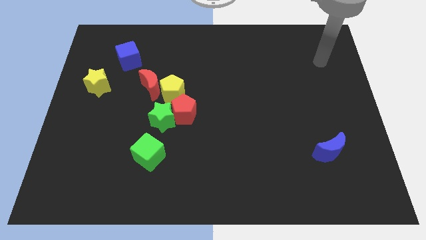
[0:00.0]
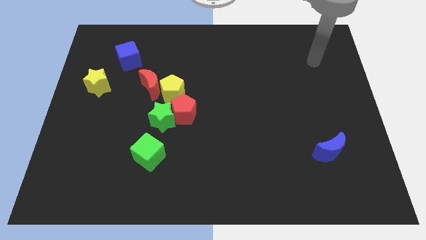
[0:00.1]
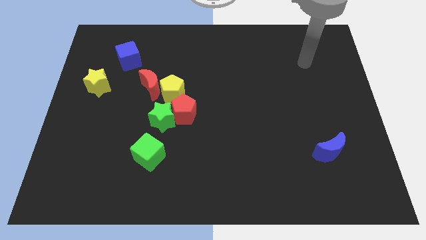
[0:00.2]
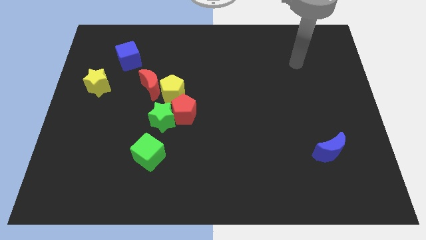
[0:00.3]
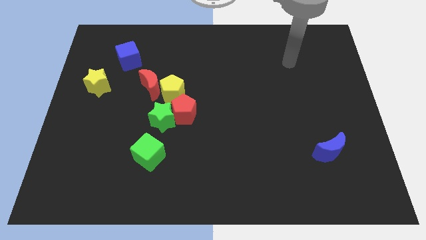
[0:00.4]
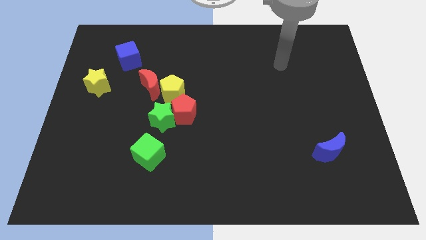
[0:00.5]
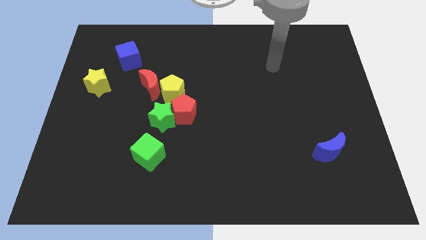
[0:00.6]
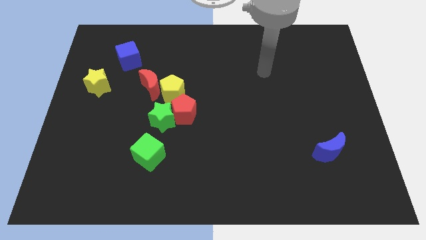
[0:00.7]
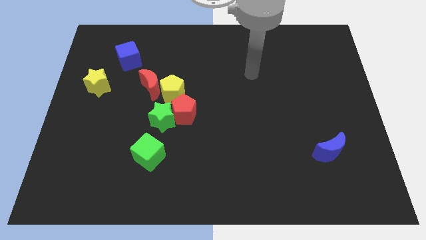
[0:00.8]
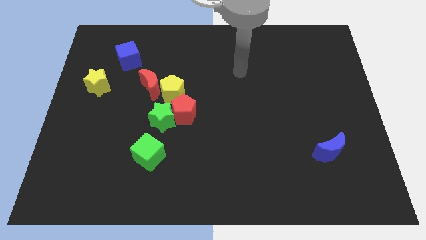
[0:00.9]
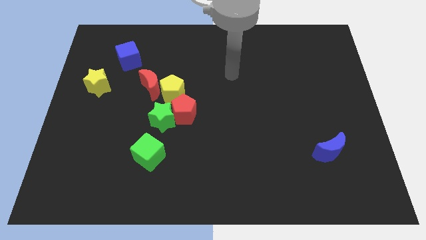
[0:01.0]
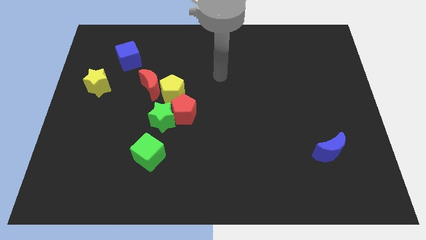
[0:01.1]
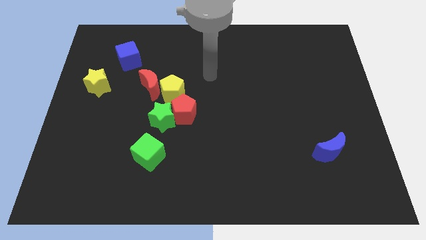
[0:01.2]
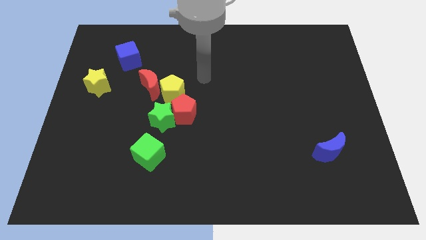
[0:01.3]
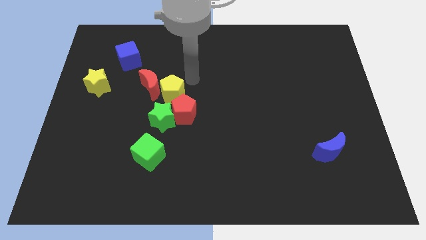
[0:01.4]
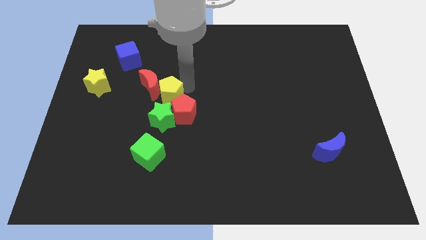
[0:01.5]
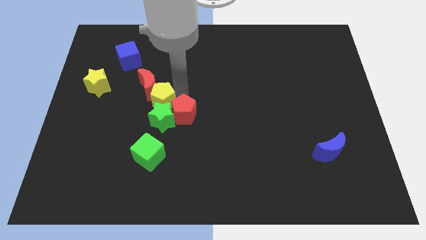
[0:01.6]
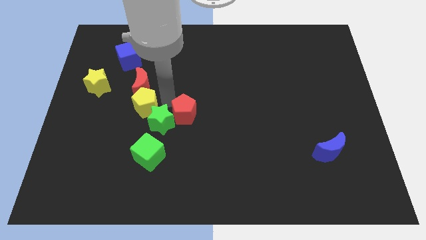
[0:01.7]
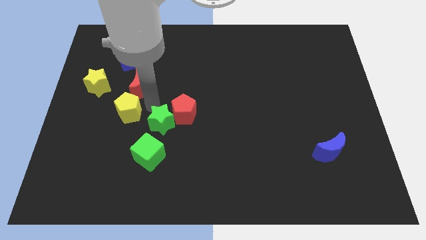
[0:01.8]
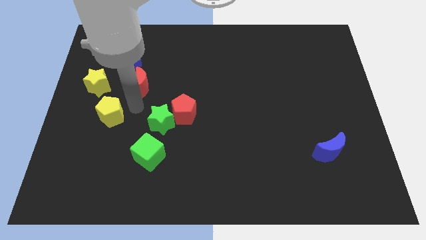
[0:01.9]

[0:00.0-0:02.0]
pull the red moon apart from the yellow pentagon

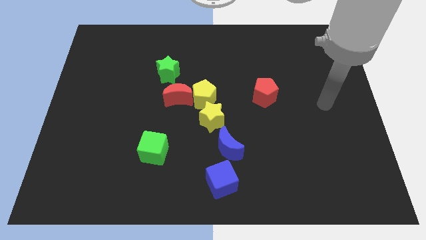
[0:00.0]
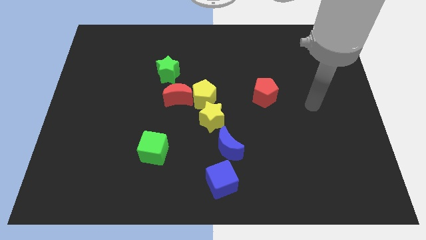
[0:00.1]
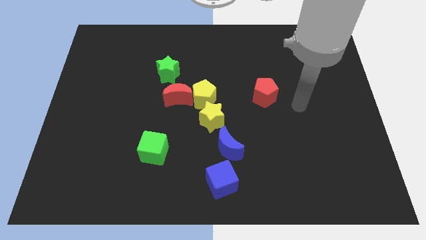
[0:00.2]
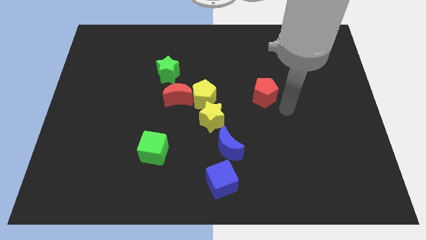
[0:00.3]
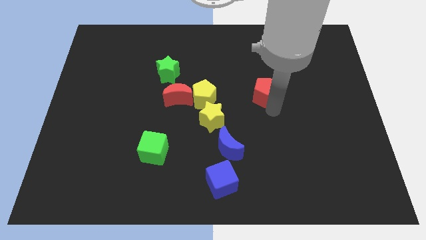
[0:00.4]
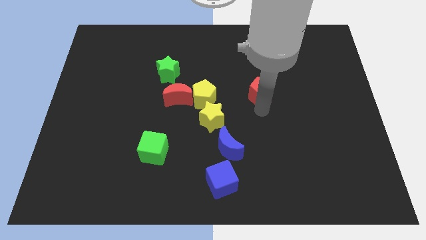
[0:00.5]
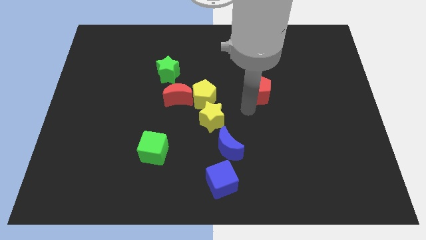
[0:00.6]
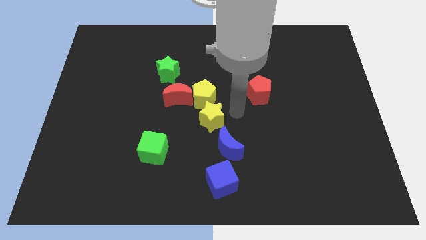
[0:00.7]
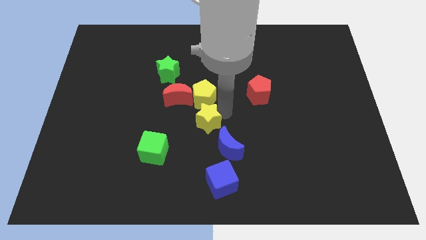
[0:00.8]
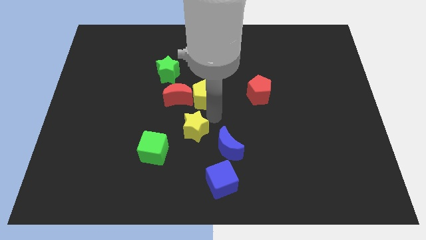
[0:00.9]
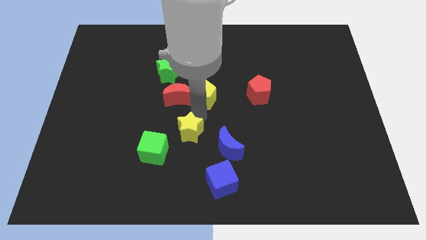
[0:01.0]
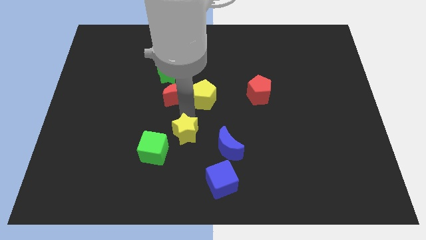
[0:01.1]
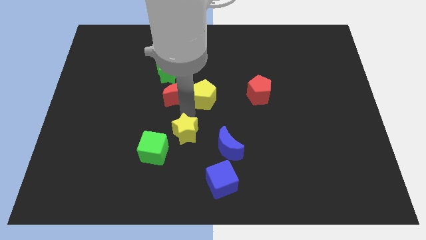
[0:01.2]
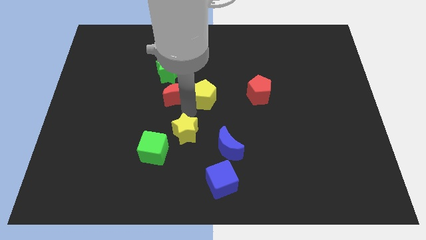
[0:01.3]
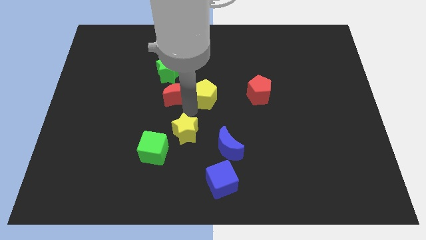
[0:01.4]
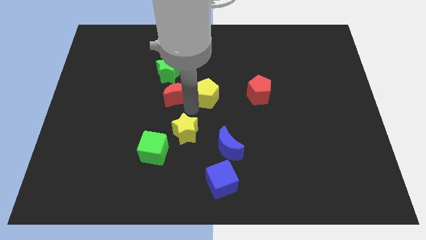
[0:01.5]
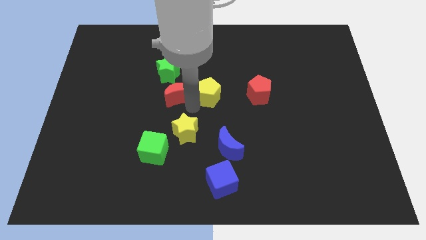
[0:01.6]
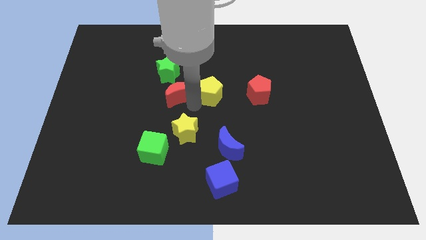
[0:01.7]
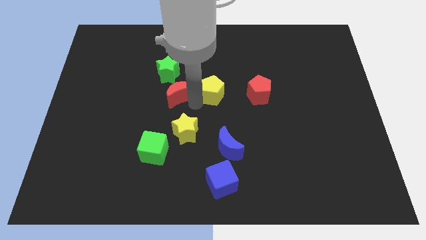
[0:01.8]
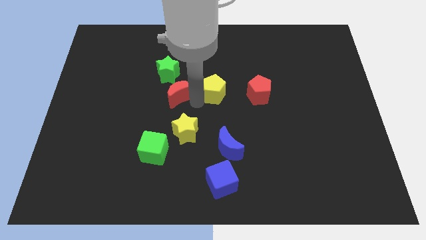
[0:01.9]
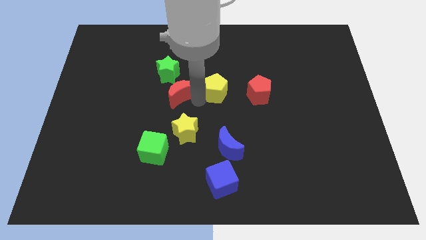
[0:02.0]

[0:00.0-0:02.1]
pull the yellow pentagon apart from the red moon and yellow star

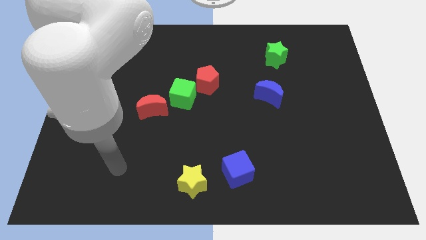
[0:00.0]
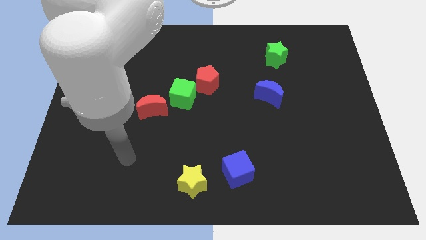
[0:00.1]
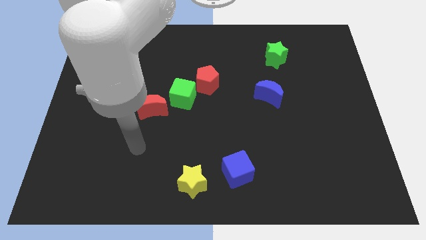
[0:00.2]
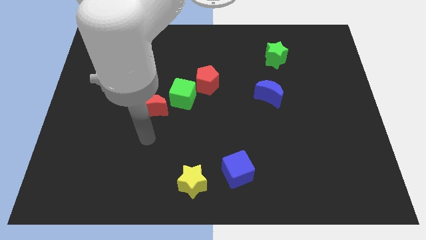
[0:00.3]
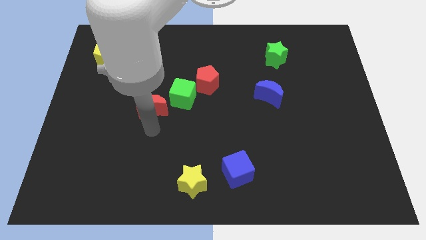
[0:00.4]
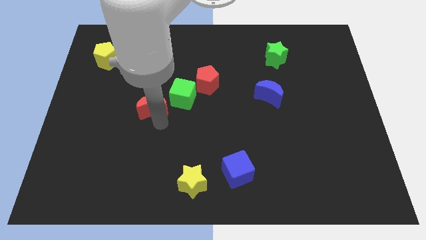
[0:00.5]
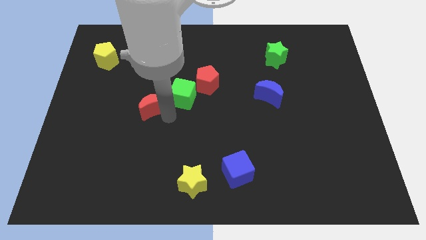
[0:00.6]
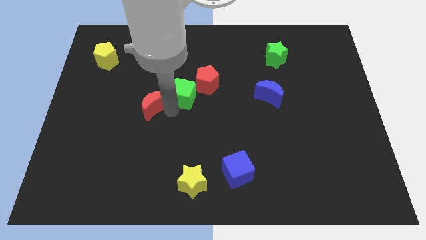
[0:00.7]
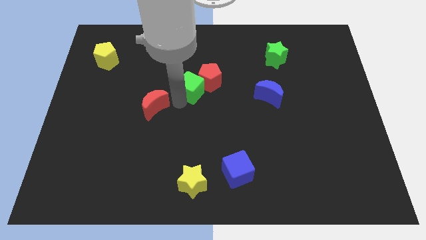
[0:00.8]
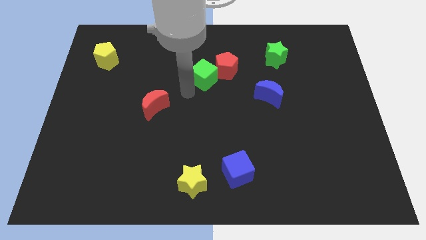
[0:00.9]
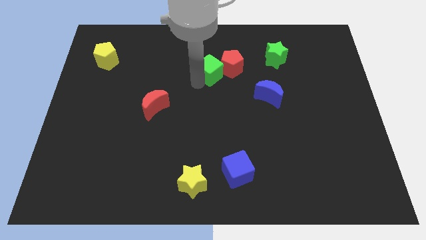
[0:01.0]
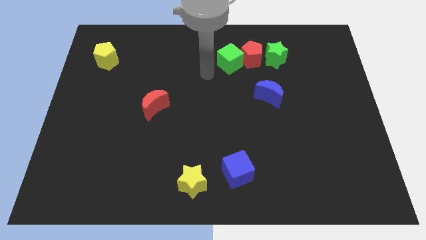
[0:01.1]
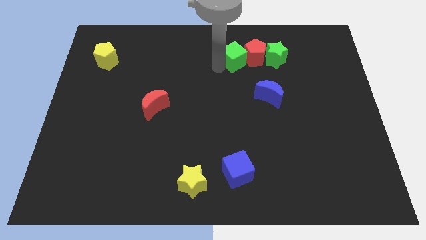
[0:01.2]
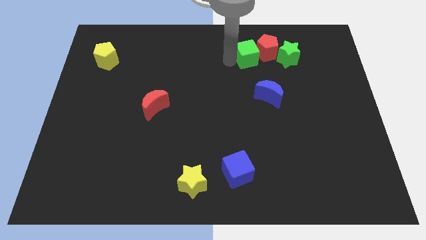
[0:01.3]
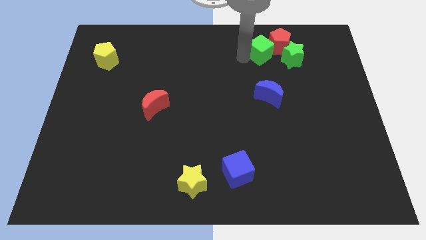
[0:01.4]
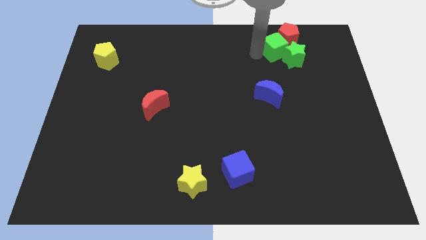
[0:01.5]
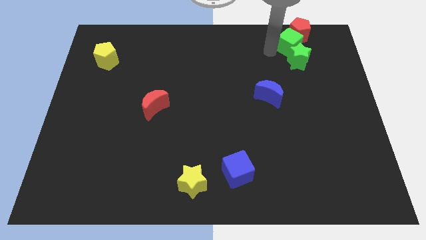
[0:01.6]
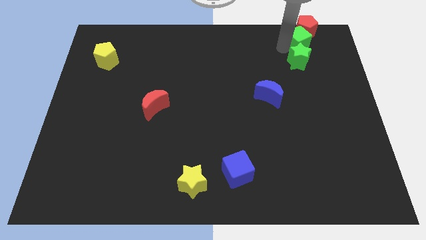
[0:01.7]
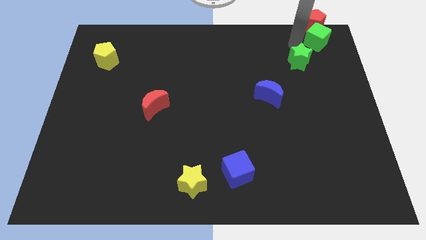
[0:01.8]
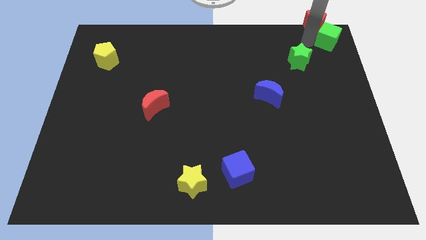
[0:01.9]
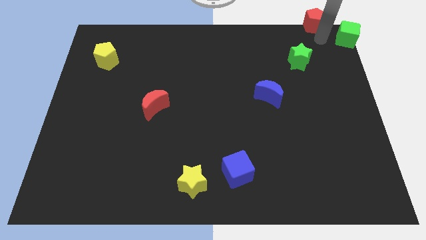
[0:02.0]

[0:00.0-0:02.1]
move the red pentagon away from the green cube

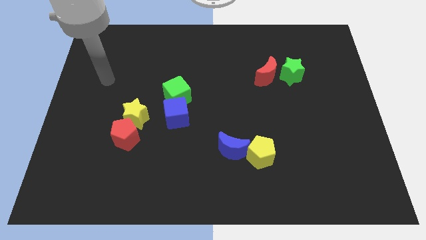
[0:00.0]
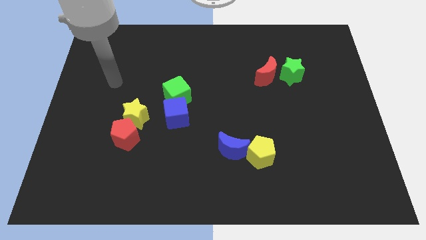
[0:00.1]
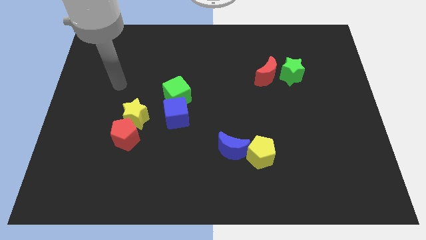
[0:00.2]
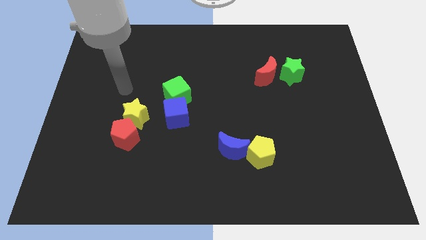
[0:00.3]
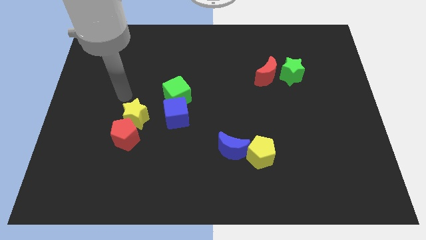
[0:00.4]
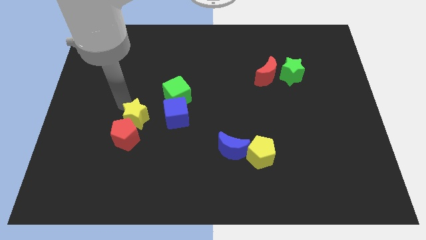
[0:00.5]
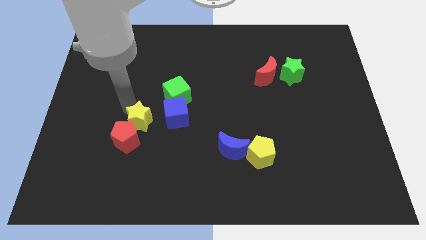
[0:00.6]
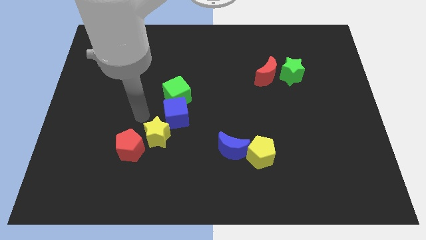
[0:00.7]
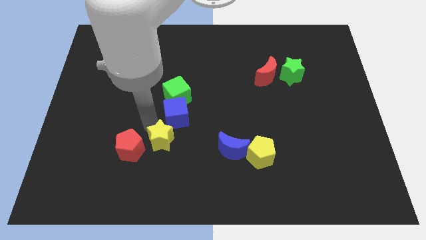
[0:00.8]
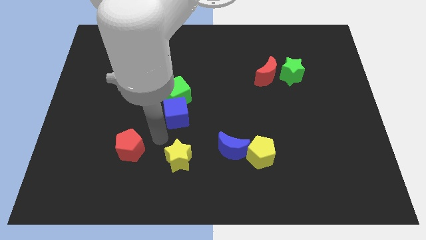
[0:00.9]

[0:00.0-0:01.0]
pull the red pentagon apart from the yellow star

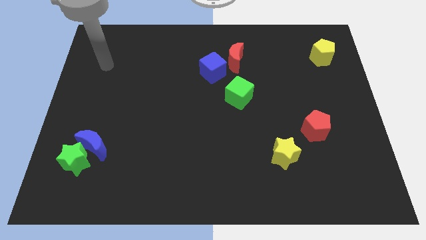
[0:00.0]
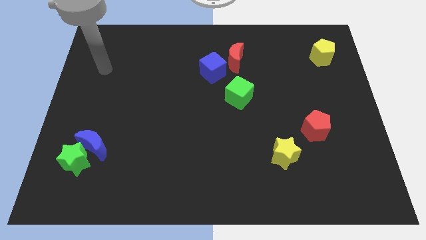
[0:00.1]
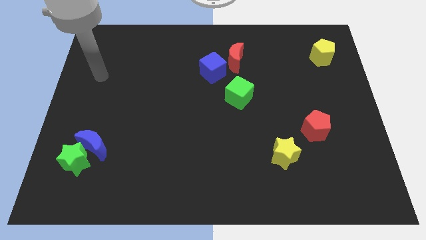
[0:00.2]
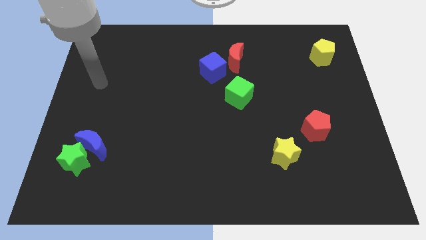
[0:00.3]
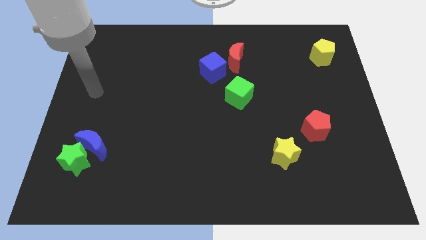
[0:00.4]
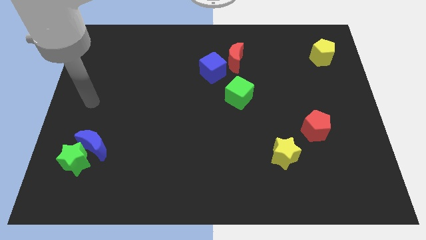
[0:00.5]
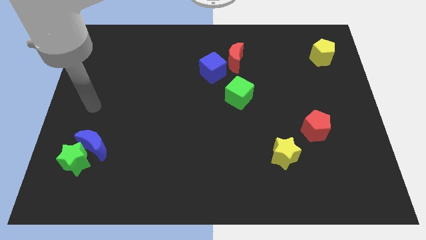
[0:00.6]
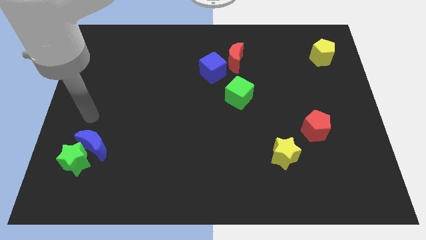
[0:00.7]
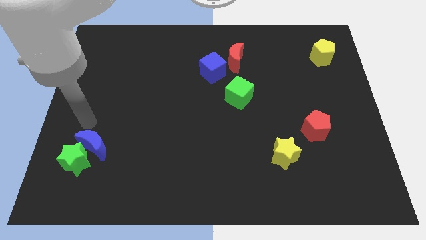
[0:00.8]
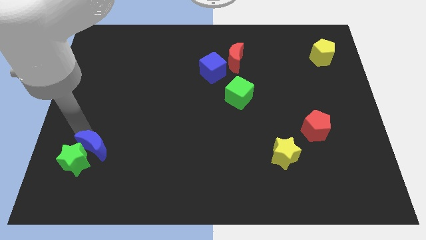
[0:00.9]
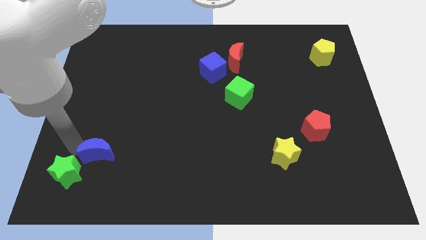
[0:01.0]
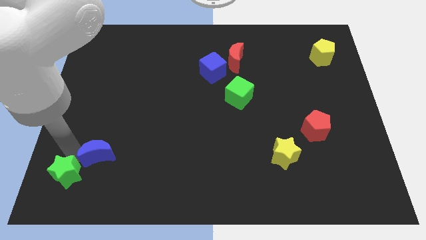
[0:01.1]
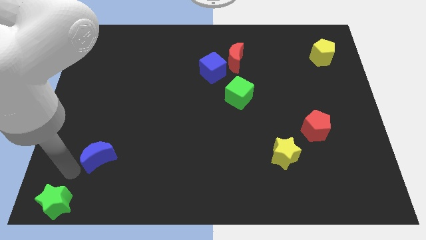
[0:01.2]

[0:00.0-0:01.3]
separate the blue moon from the green star

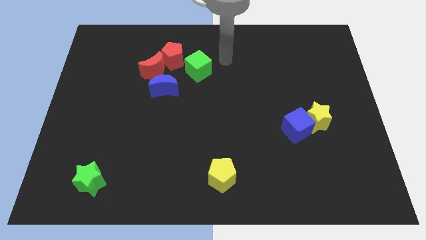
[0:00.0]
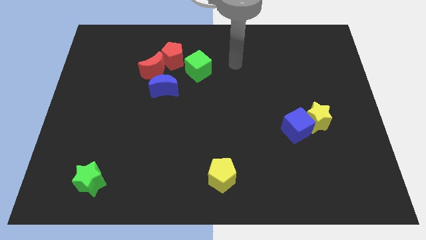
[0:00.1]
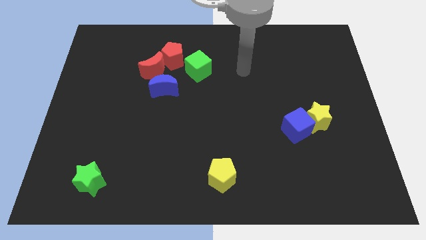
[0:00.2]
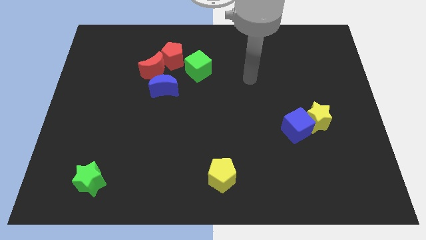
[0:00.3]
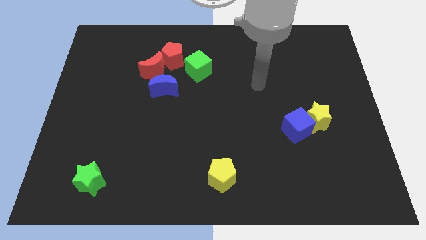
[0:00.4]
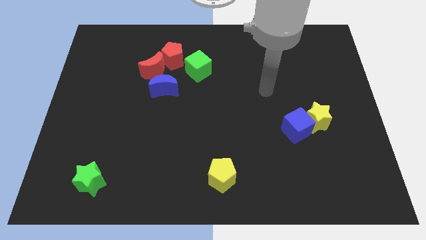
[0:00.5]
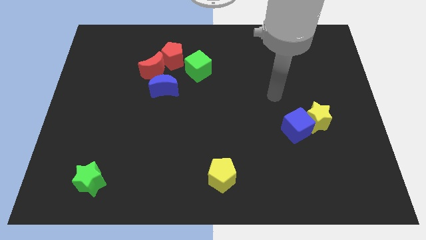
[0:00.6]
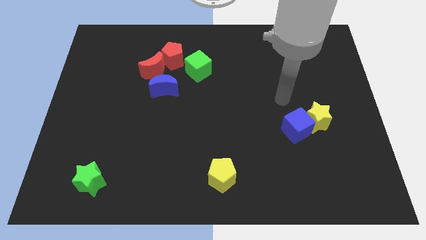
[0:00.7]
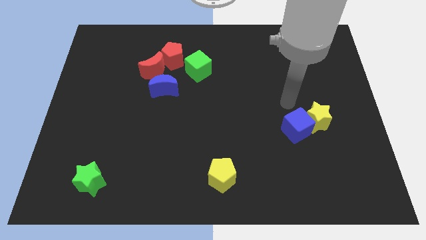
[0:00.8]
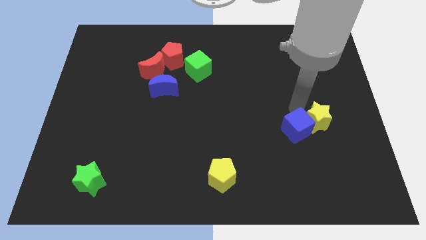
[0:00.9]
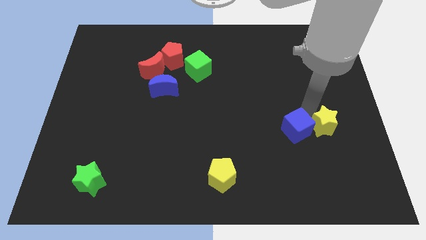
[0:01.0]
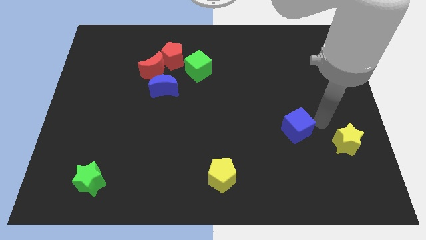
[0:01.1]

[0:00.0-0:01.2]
separate the blue cube from the yellow star
